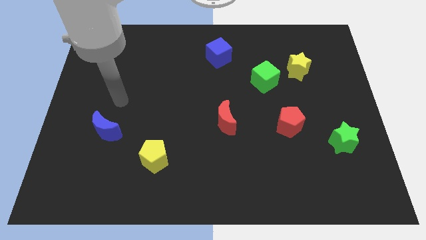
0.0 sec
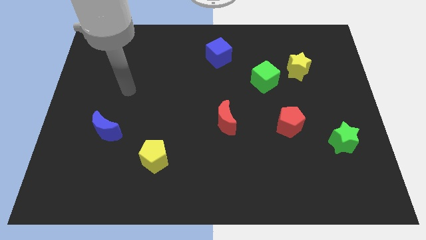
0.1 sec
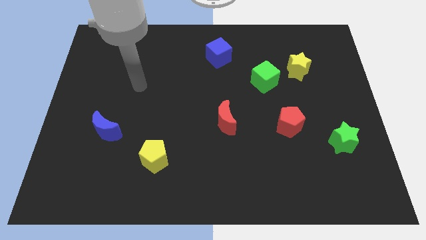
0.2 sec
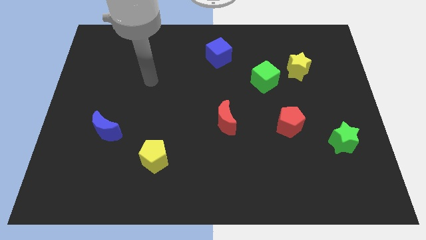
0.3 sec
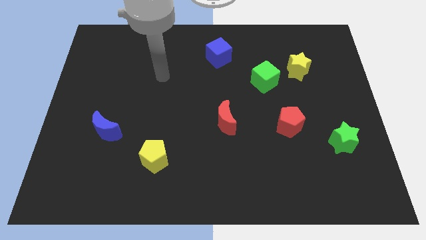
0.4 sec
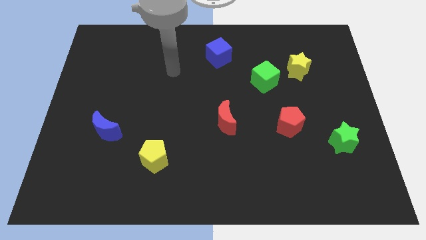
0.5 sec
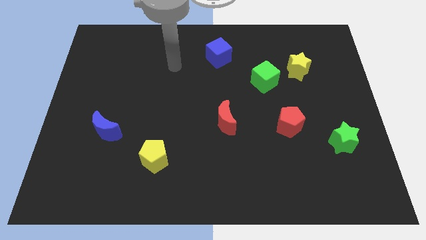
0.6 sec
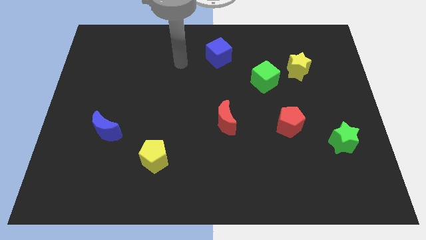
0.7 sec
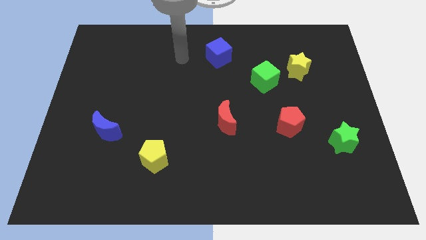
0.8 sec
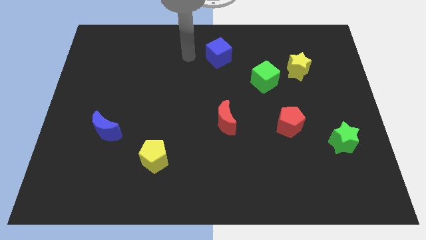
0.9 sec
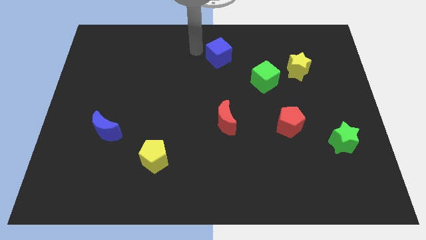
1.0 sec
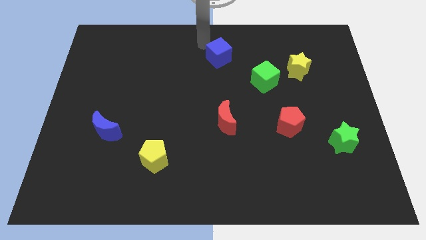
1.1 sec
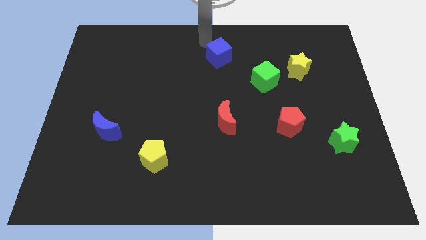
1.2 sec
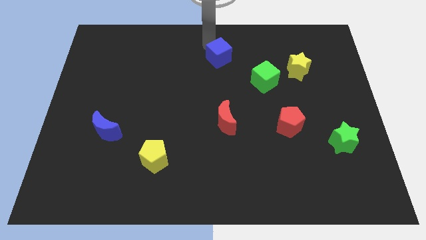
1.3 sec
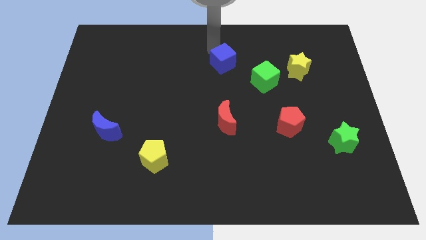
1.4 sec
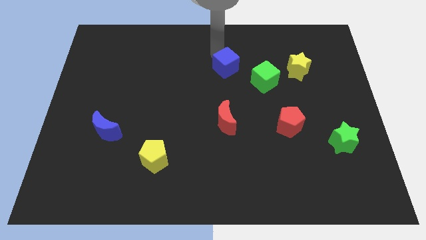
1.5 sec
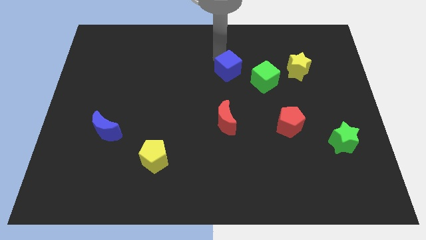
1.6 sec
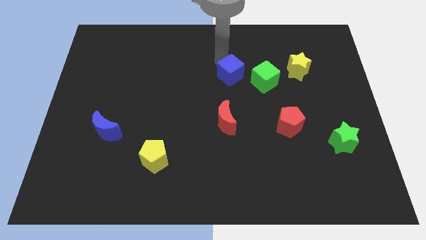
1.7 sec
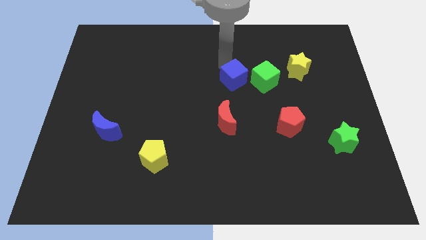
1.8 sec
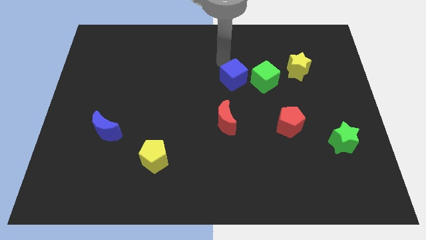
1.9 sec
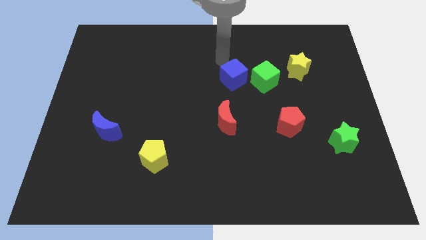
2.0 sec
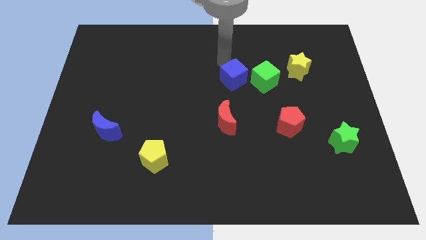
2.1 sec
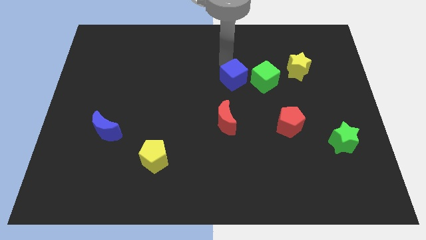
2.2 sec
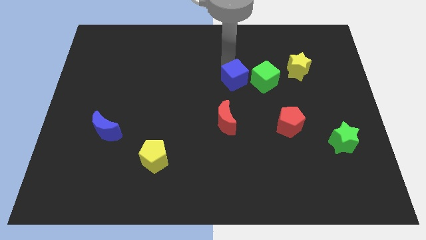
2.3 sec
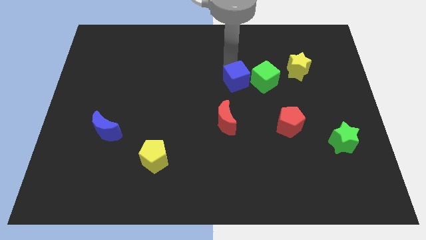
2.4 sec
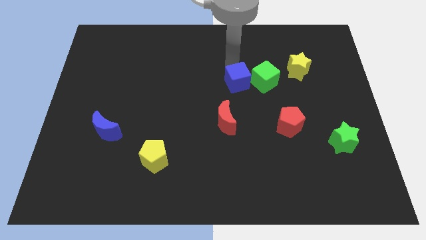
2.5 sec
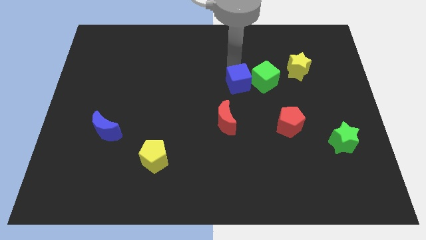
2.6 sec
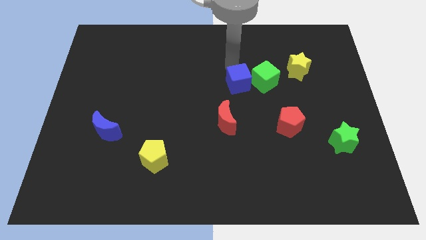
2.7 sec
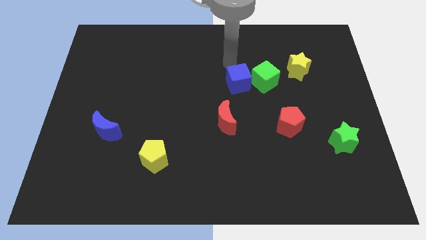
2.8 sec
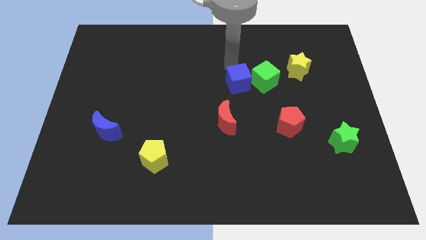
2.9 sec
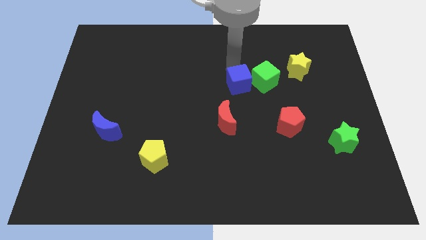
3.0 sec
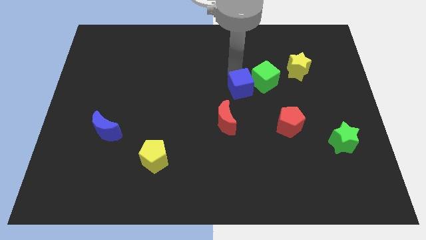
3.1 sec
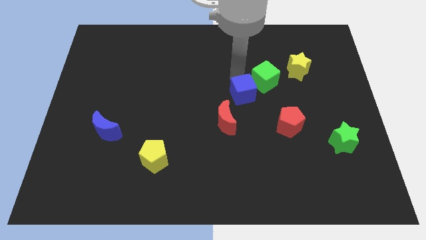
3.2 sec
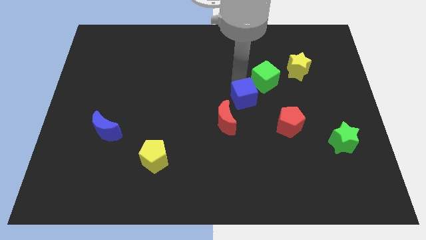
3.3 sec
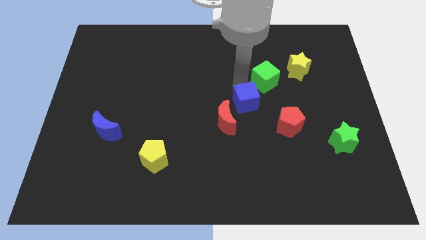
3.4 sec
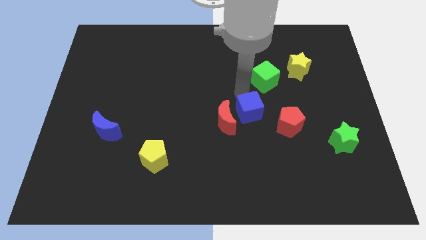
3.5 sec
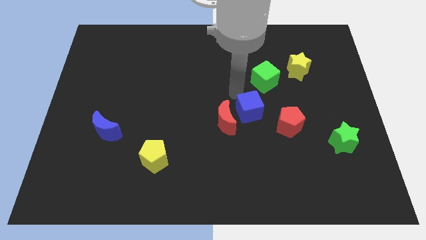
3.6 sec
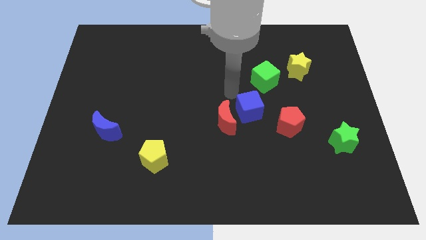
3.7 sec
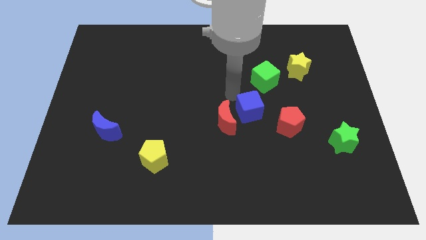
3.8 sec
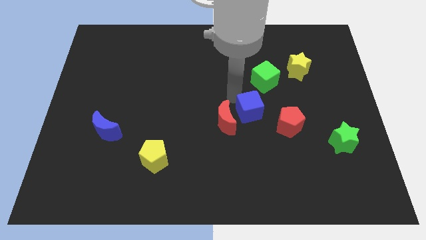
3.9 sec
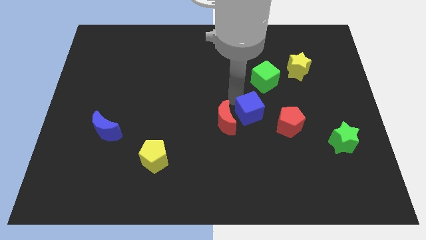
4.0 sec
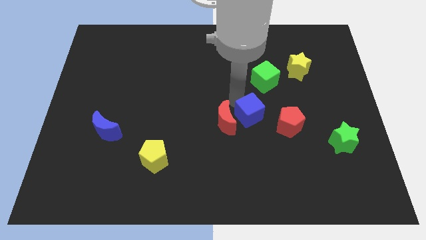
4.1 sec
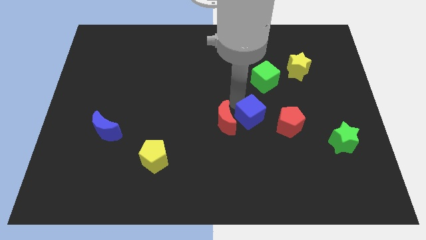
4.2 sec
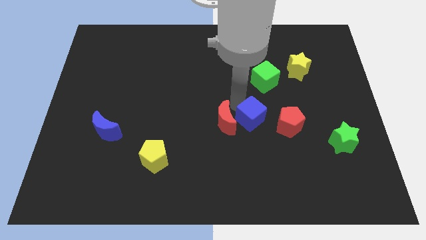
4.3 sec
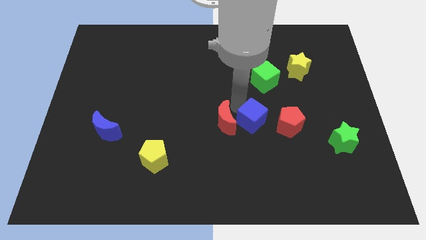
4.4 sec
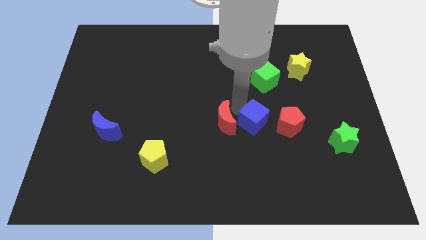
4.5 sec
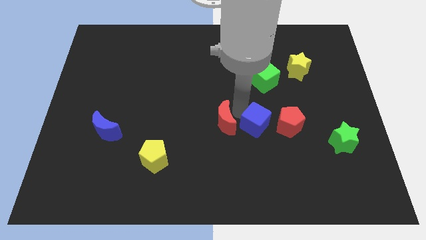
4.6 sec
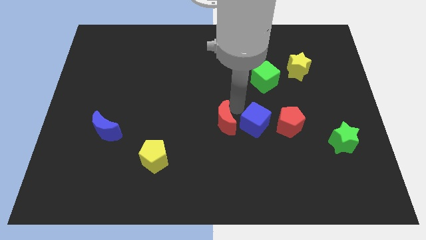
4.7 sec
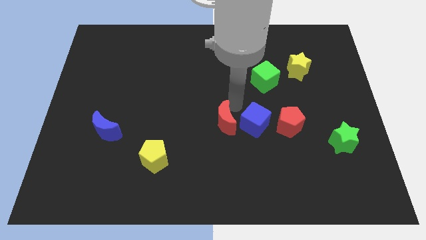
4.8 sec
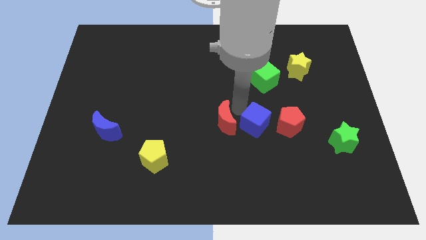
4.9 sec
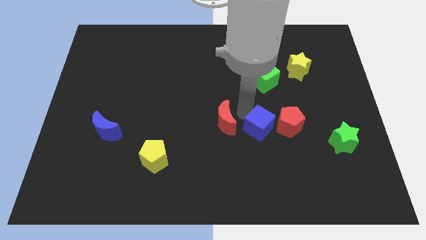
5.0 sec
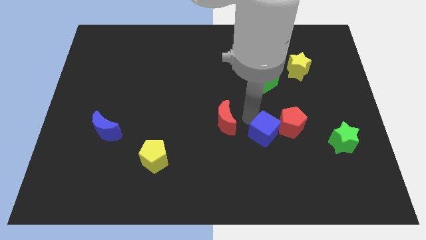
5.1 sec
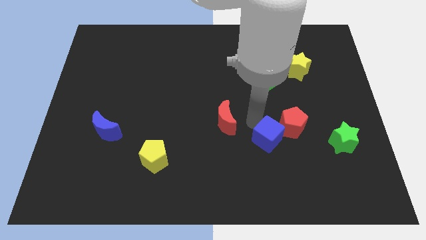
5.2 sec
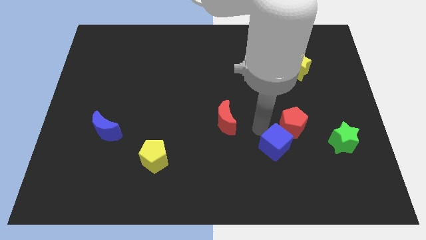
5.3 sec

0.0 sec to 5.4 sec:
push the blue cube to the bottom of the red pentagon

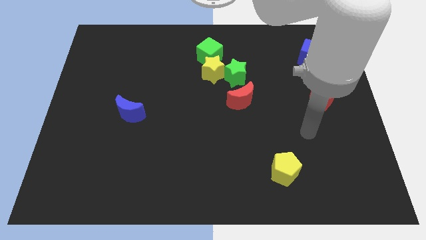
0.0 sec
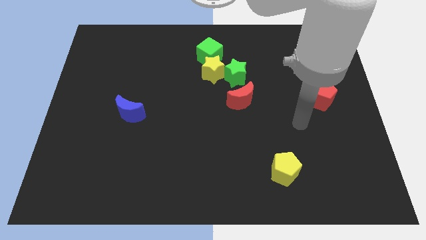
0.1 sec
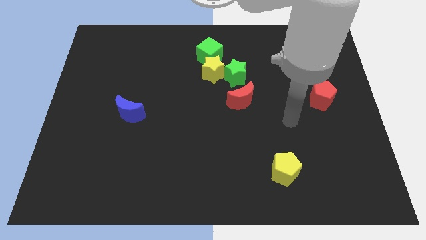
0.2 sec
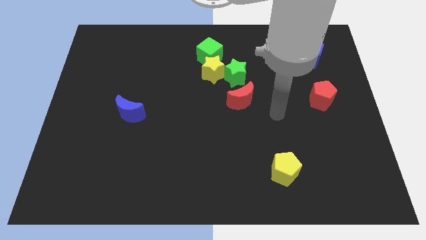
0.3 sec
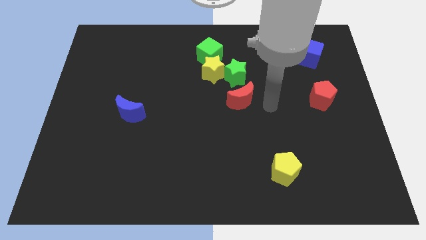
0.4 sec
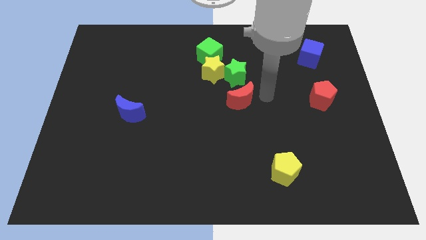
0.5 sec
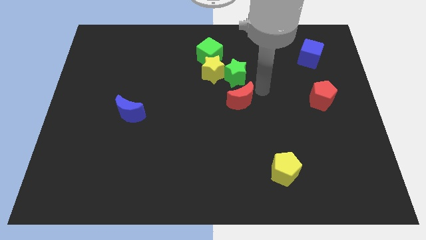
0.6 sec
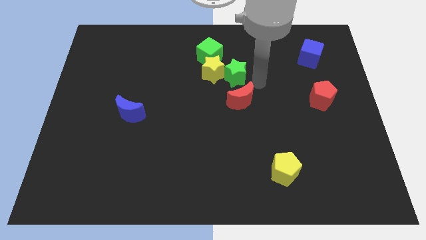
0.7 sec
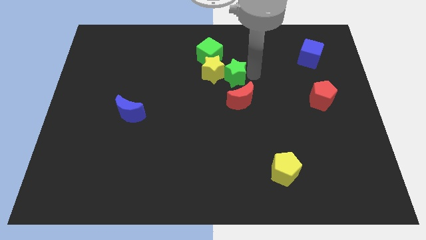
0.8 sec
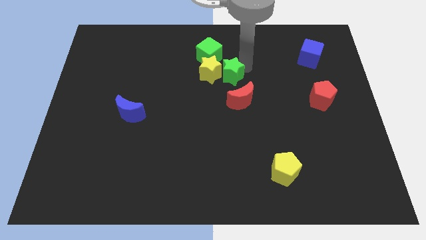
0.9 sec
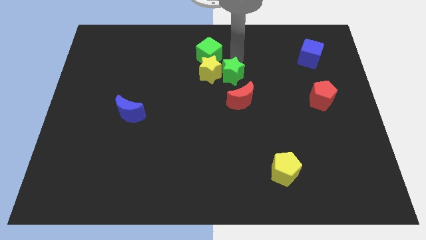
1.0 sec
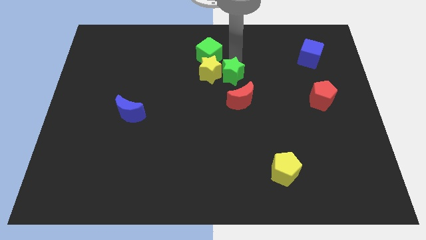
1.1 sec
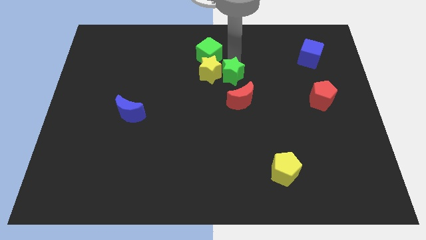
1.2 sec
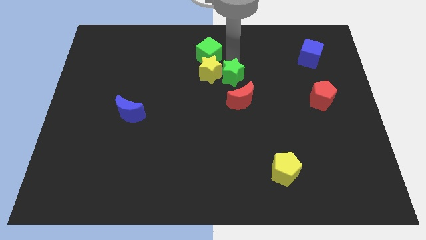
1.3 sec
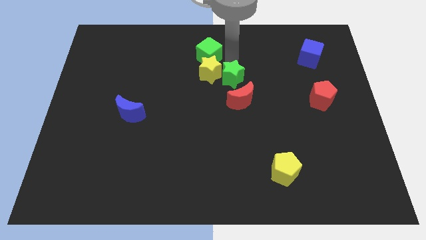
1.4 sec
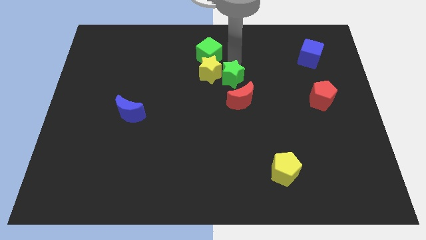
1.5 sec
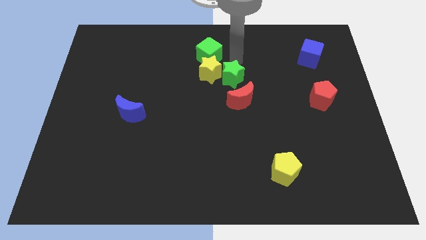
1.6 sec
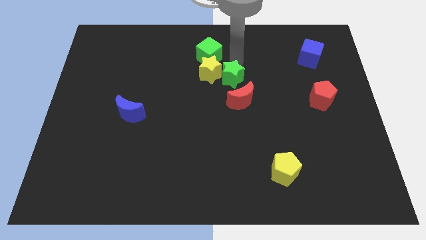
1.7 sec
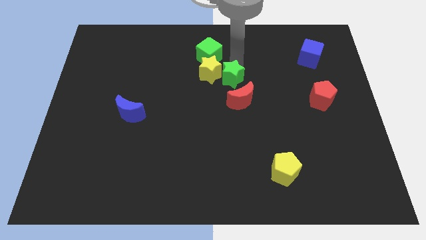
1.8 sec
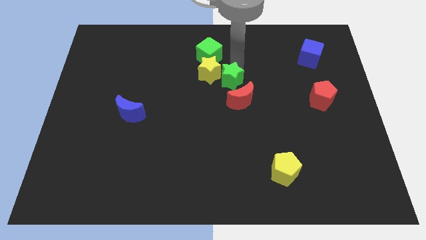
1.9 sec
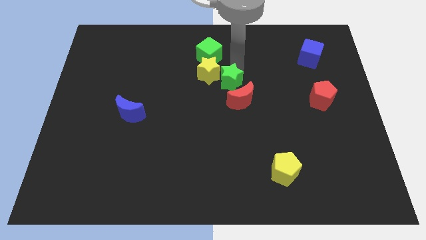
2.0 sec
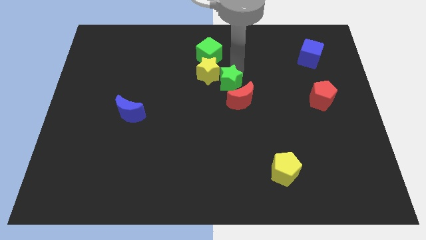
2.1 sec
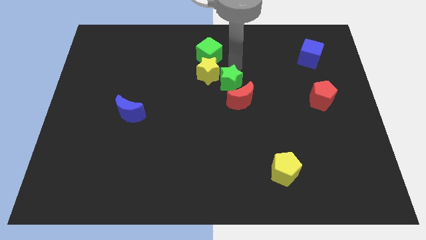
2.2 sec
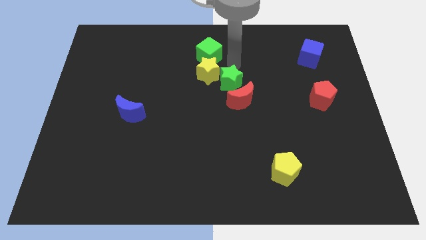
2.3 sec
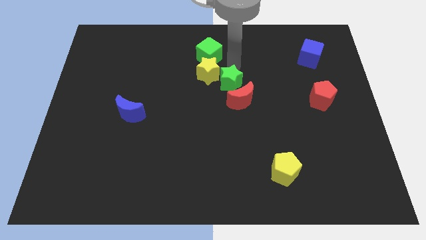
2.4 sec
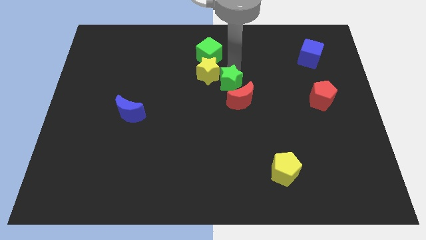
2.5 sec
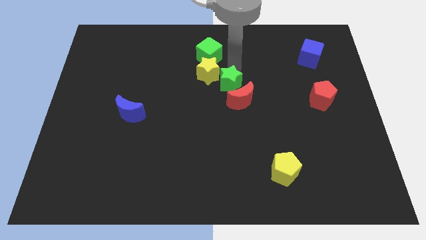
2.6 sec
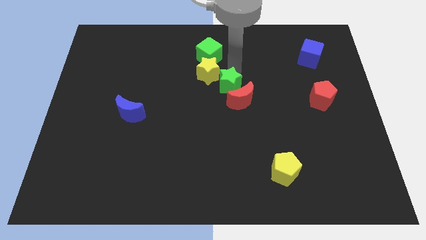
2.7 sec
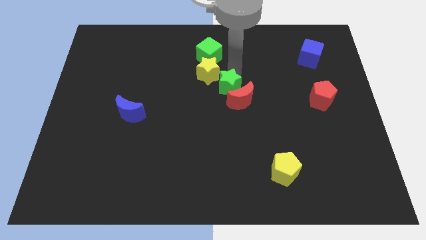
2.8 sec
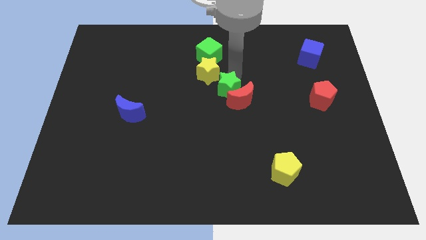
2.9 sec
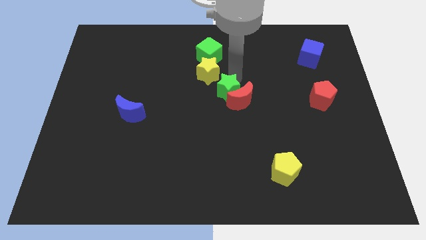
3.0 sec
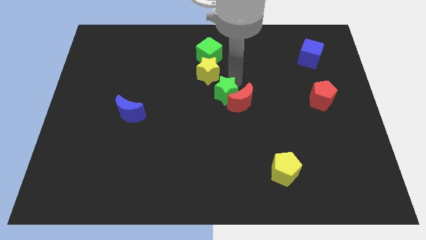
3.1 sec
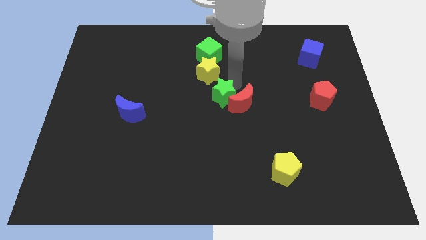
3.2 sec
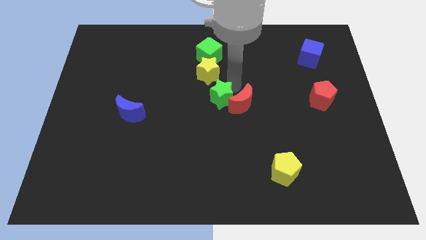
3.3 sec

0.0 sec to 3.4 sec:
put the green star diagonally down and to the left of the red moon
